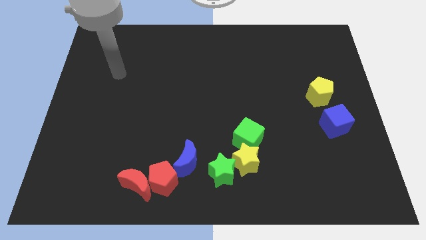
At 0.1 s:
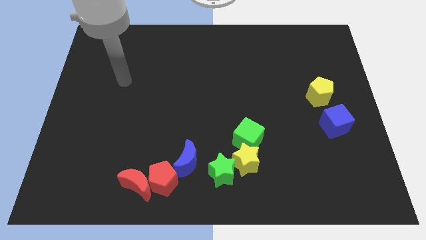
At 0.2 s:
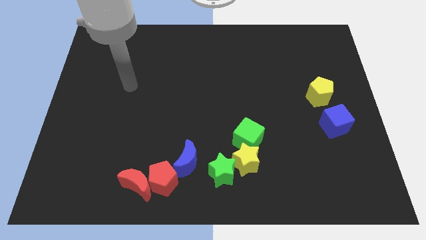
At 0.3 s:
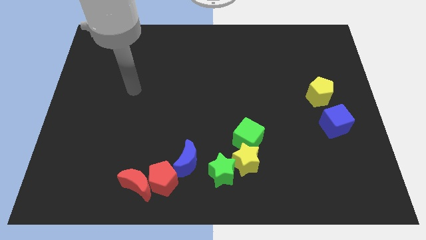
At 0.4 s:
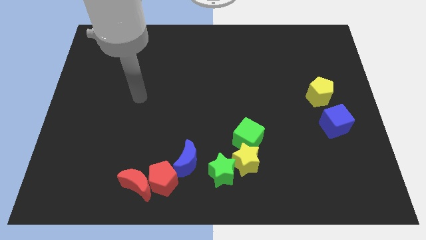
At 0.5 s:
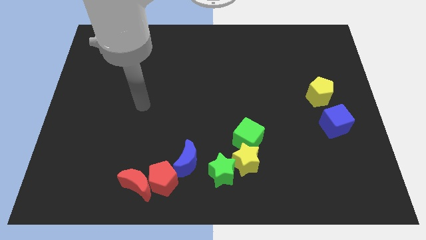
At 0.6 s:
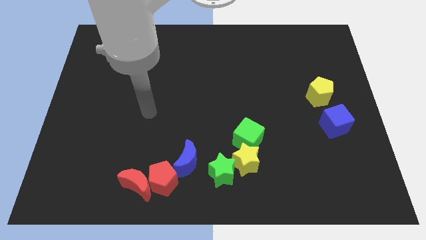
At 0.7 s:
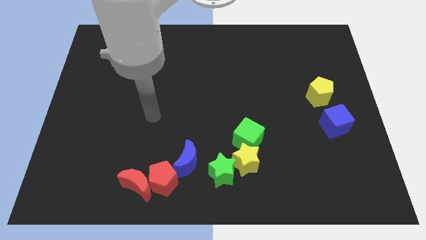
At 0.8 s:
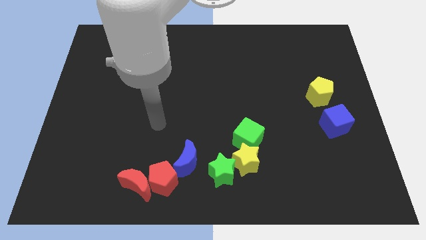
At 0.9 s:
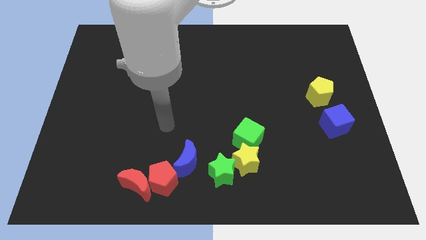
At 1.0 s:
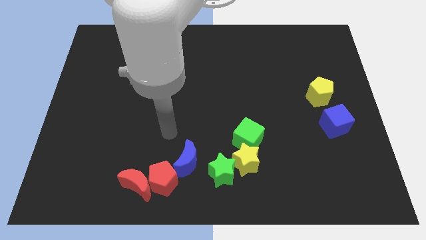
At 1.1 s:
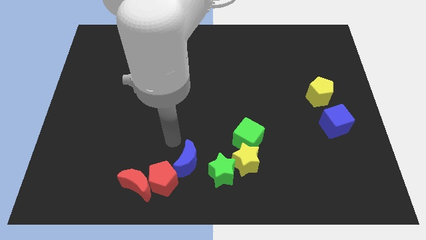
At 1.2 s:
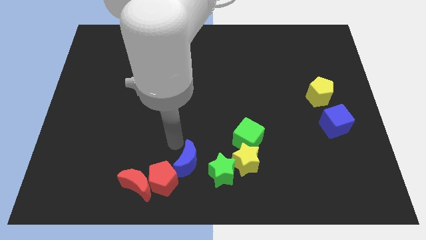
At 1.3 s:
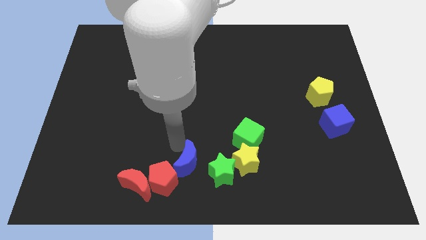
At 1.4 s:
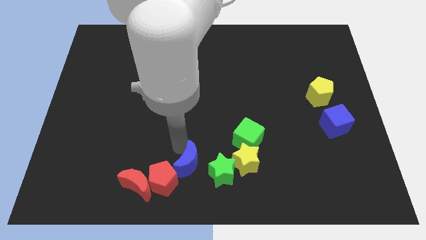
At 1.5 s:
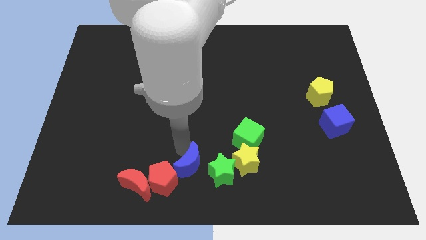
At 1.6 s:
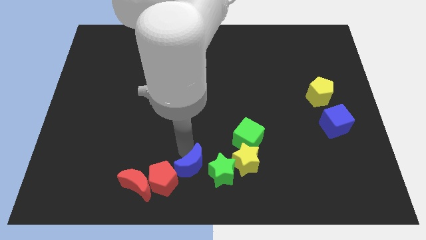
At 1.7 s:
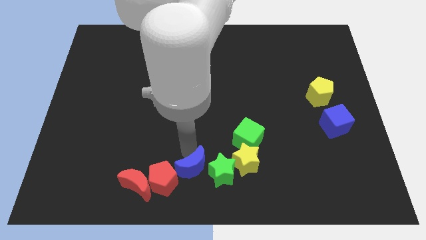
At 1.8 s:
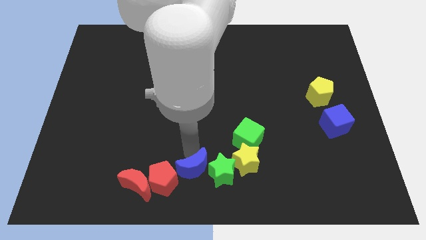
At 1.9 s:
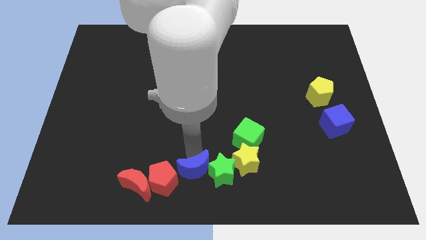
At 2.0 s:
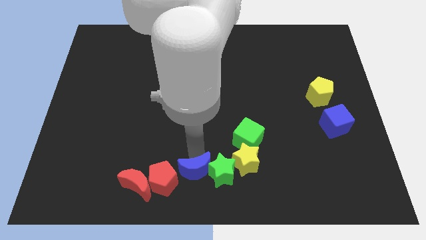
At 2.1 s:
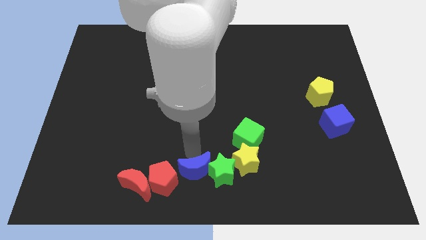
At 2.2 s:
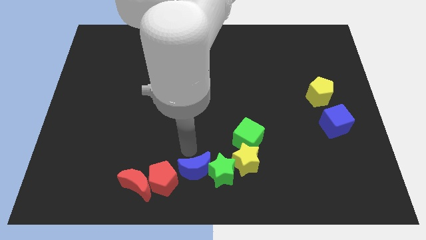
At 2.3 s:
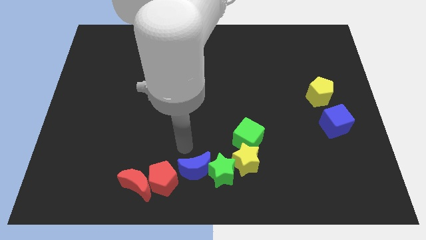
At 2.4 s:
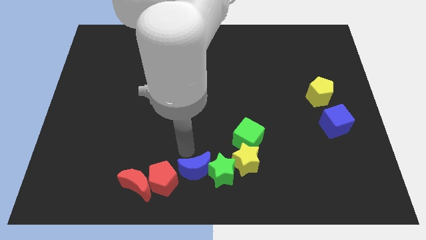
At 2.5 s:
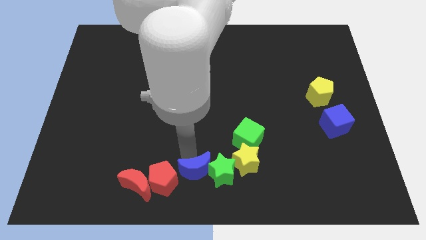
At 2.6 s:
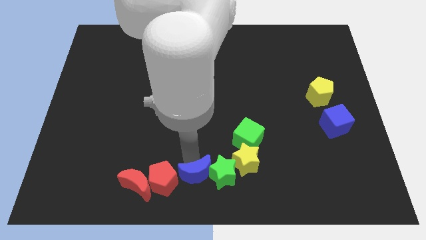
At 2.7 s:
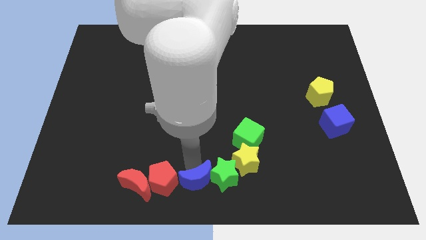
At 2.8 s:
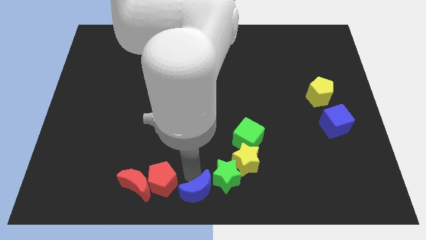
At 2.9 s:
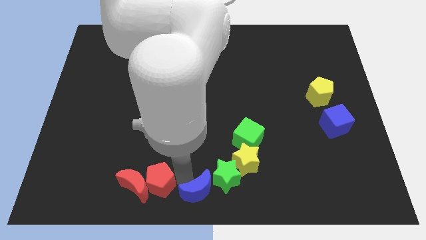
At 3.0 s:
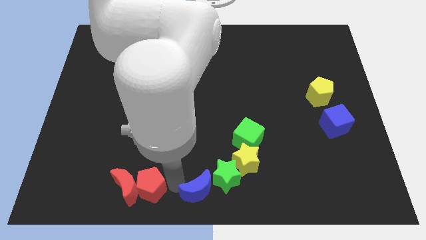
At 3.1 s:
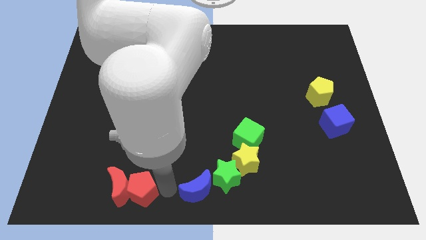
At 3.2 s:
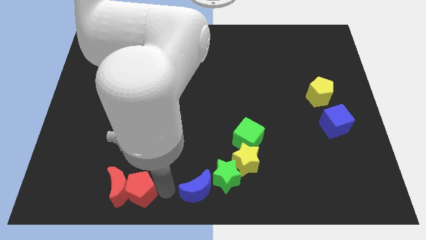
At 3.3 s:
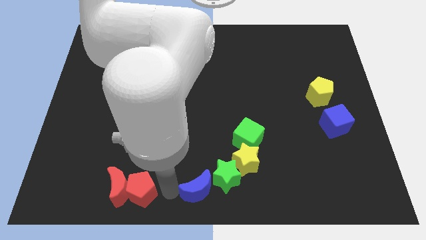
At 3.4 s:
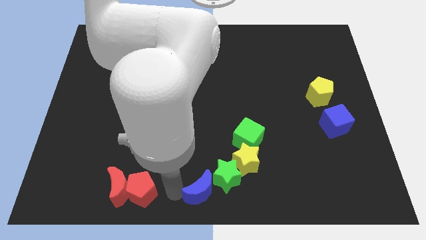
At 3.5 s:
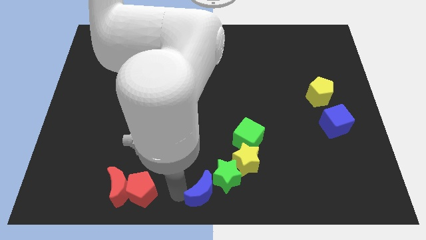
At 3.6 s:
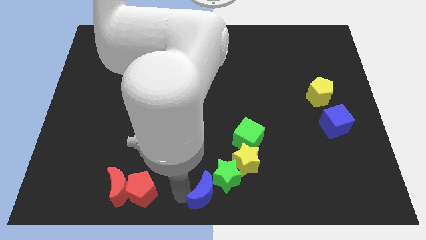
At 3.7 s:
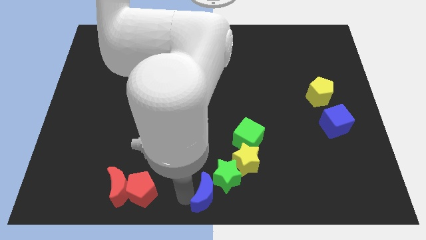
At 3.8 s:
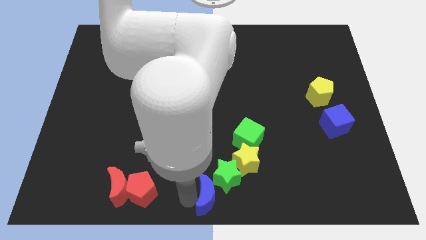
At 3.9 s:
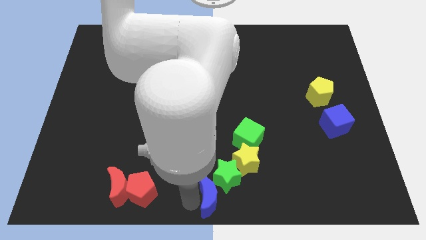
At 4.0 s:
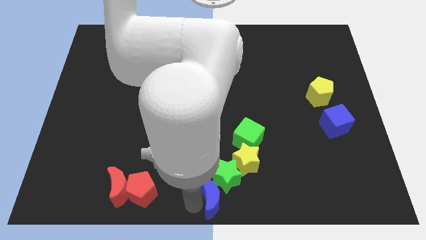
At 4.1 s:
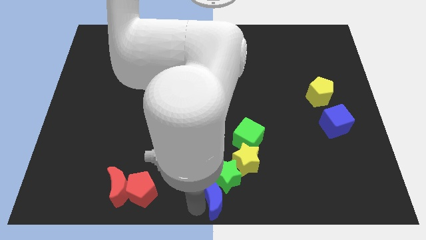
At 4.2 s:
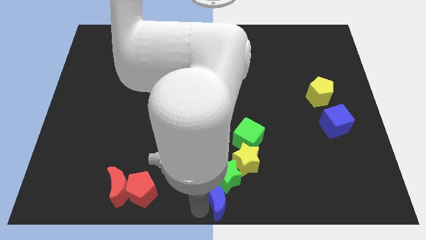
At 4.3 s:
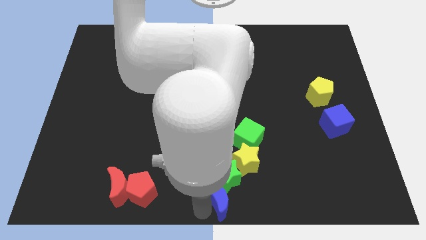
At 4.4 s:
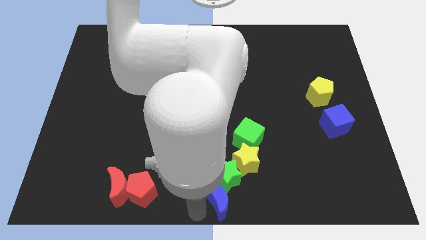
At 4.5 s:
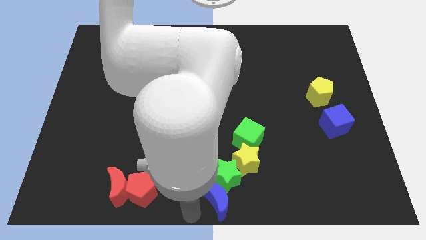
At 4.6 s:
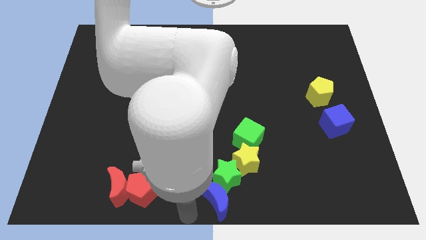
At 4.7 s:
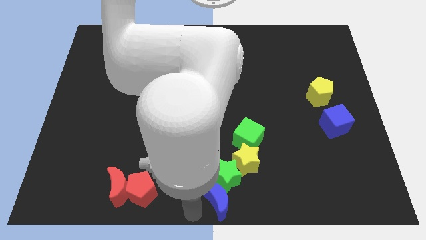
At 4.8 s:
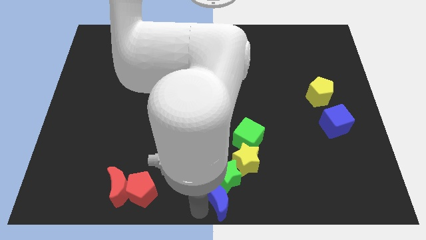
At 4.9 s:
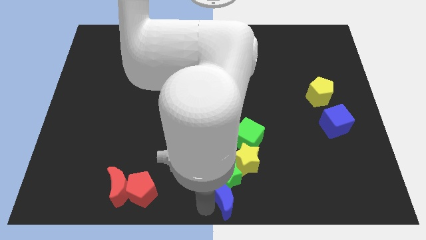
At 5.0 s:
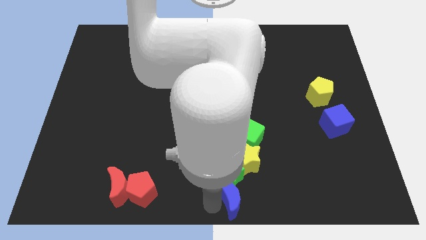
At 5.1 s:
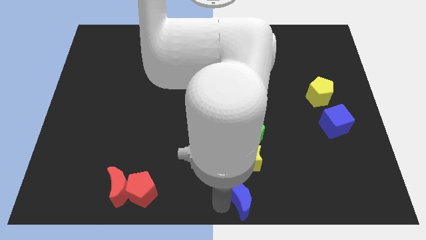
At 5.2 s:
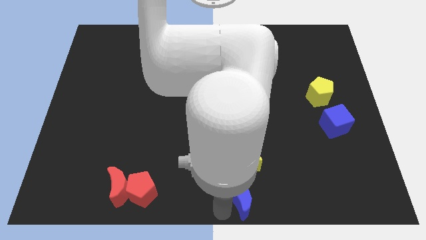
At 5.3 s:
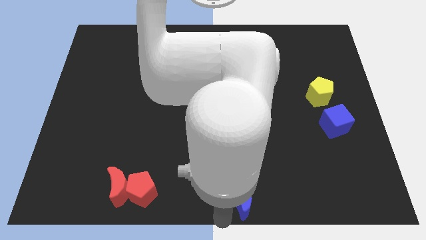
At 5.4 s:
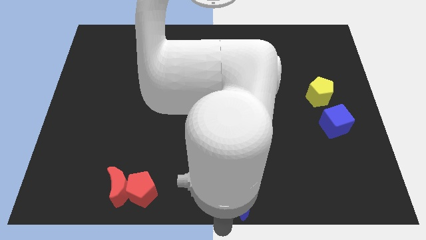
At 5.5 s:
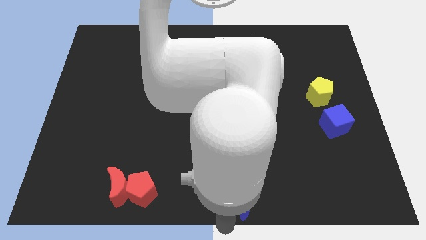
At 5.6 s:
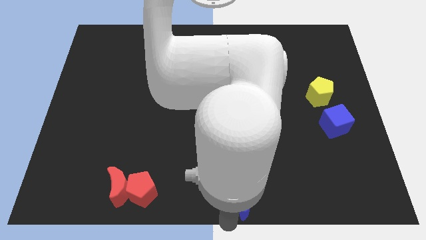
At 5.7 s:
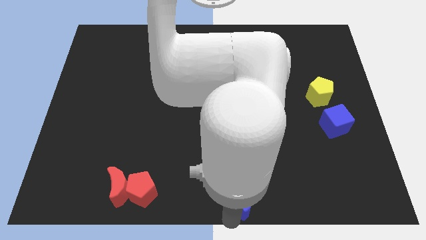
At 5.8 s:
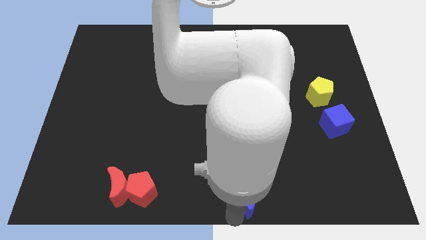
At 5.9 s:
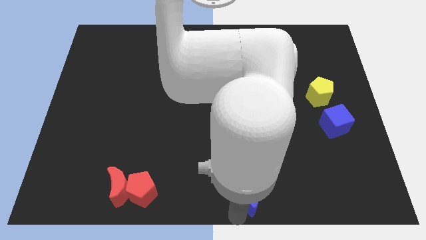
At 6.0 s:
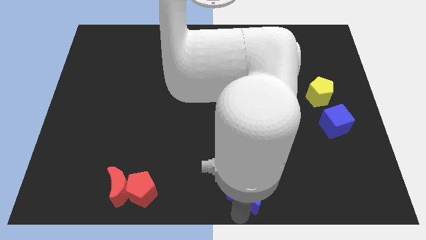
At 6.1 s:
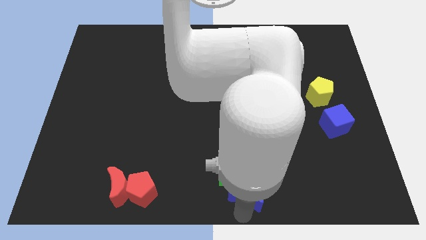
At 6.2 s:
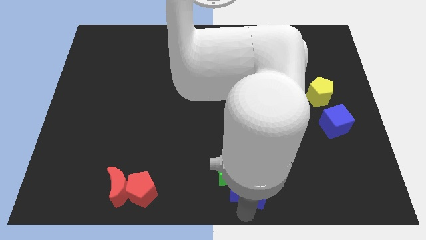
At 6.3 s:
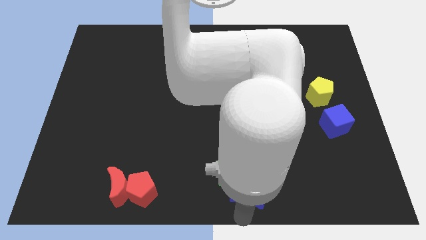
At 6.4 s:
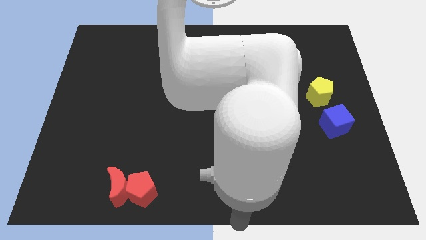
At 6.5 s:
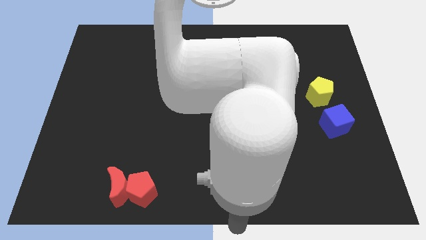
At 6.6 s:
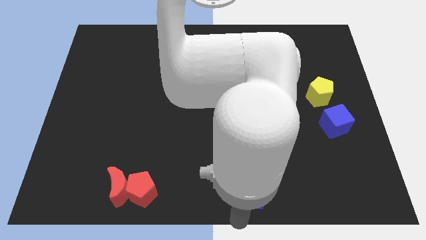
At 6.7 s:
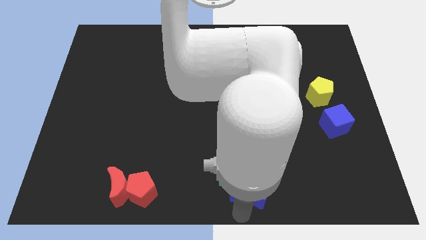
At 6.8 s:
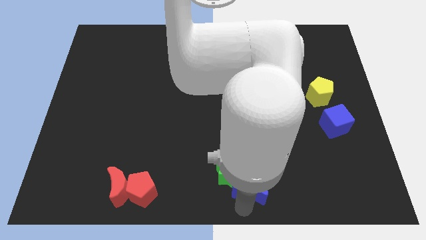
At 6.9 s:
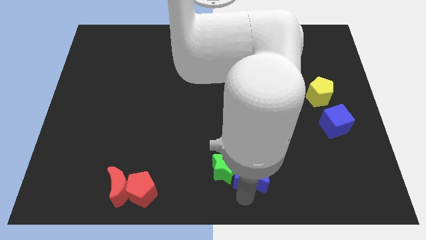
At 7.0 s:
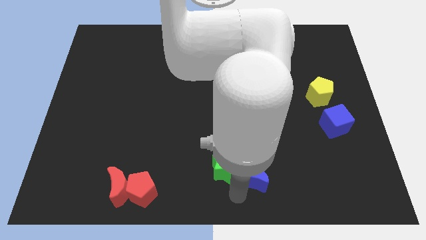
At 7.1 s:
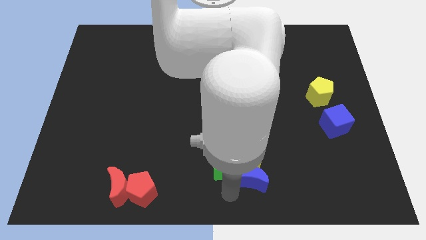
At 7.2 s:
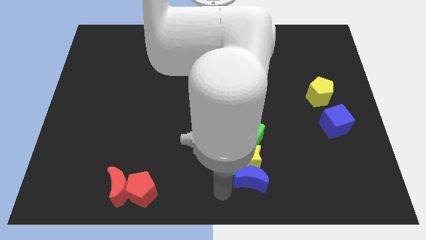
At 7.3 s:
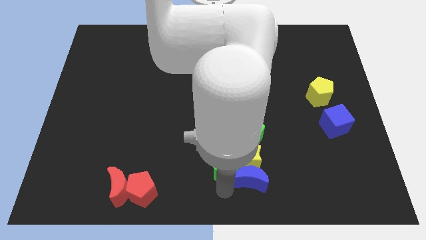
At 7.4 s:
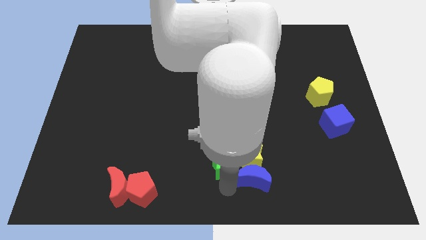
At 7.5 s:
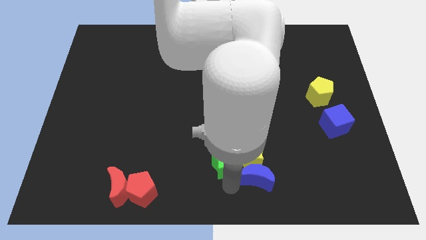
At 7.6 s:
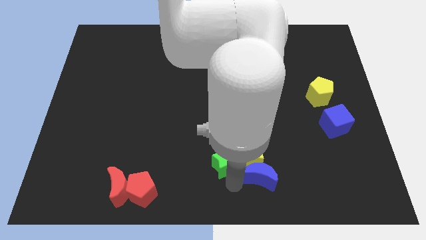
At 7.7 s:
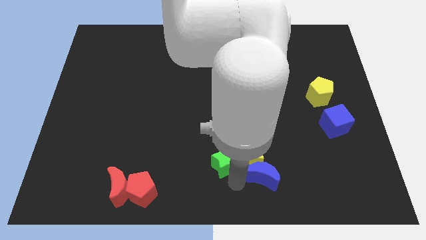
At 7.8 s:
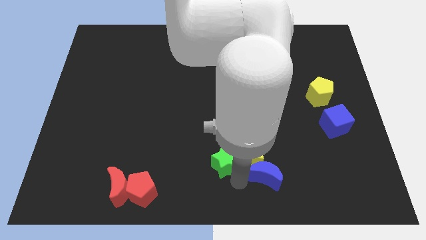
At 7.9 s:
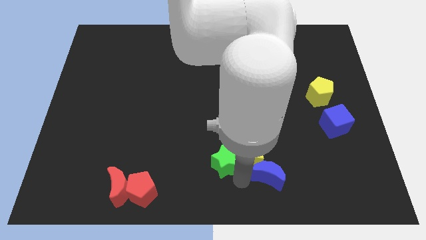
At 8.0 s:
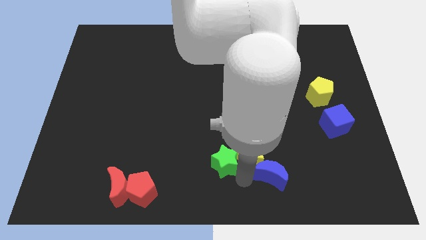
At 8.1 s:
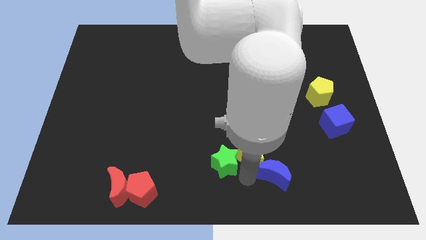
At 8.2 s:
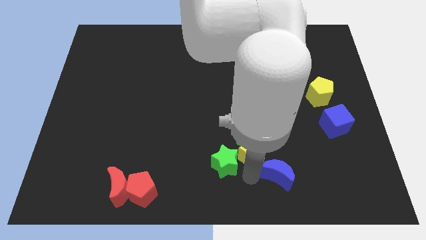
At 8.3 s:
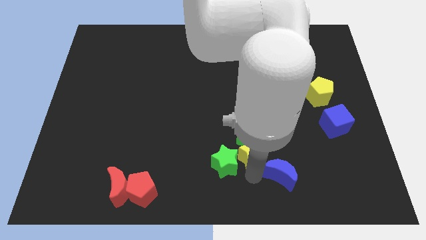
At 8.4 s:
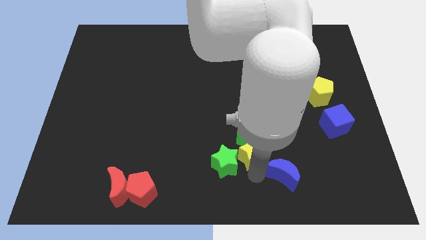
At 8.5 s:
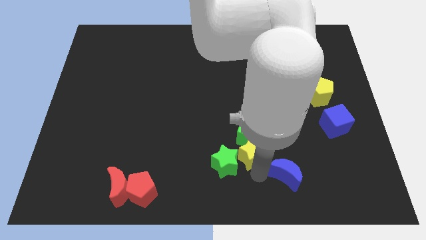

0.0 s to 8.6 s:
slide the blue moon to the right
